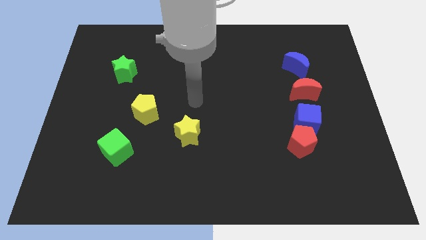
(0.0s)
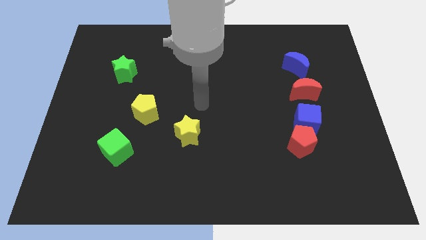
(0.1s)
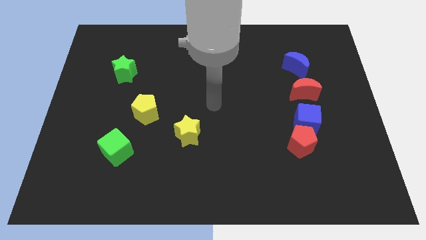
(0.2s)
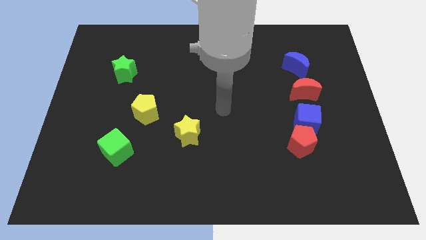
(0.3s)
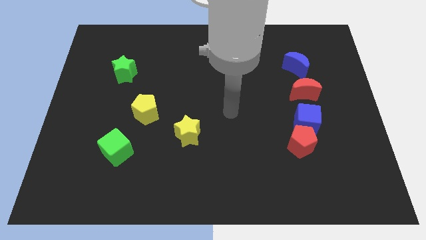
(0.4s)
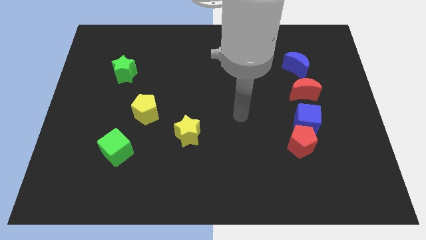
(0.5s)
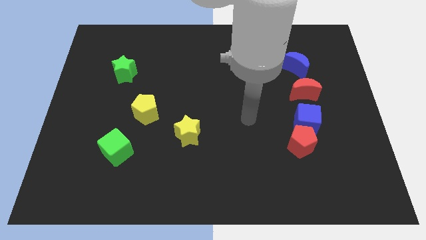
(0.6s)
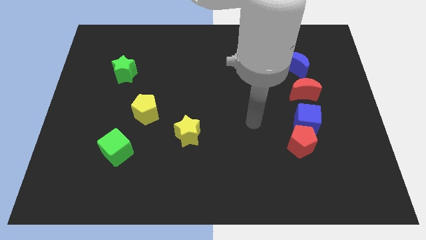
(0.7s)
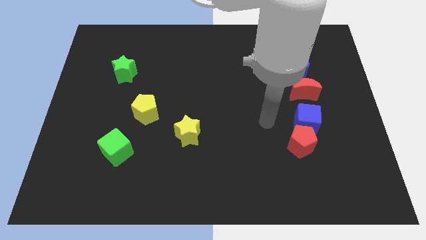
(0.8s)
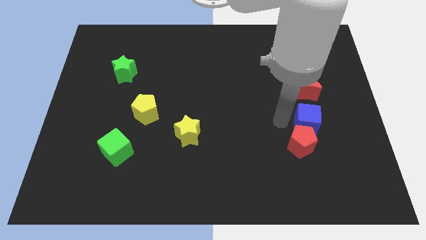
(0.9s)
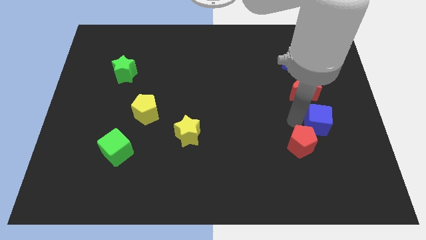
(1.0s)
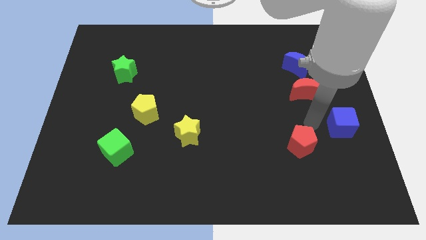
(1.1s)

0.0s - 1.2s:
separate the red pentagon from the blue cube

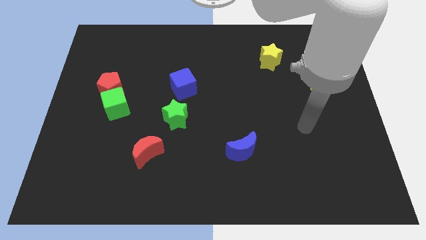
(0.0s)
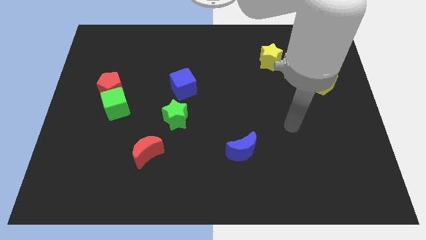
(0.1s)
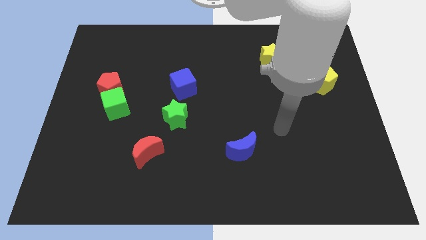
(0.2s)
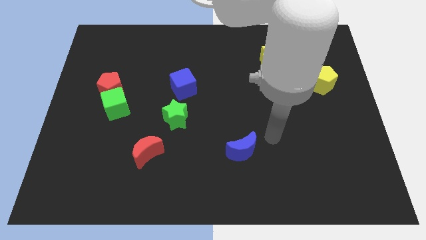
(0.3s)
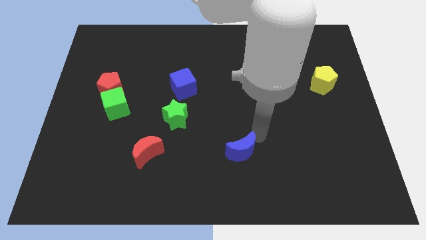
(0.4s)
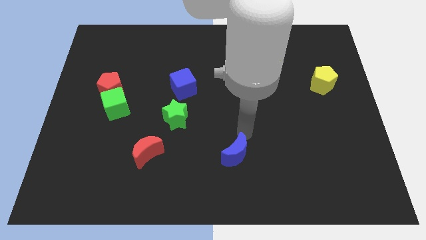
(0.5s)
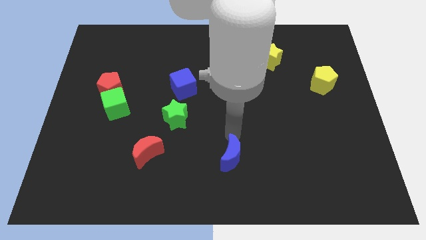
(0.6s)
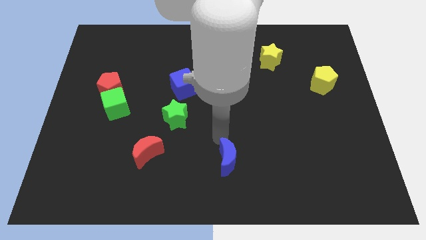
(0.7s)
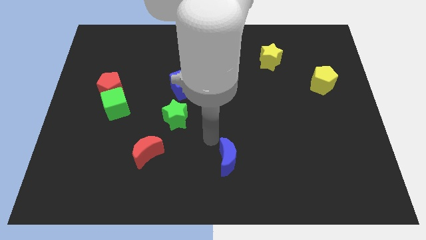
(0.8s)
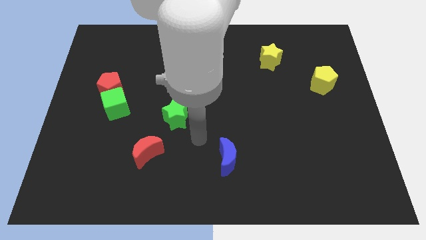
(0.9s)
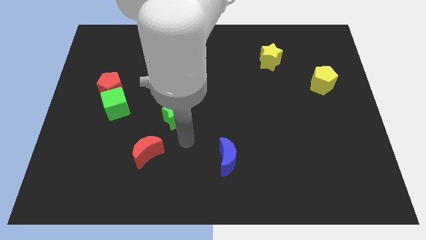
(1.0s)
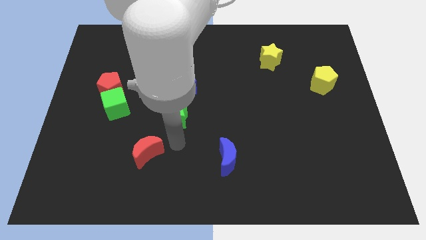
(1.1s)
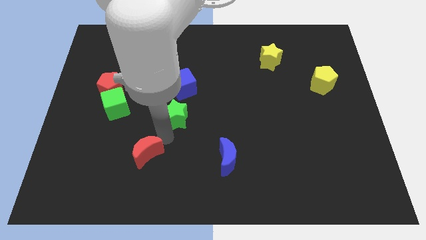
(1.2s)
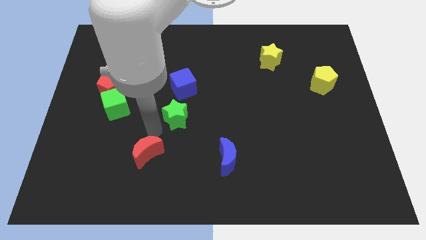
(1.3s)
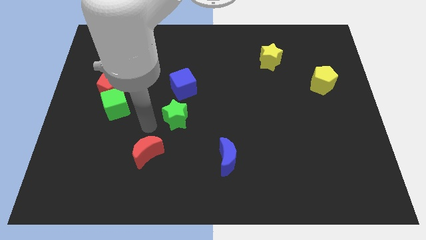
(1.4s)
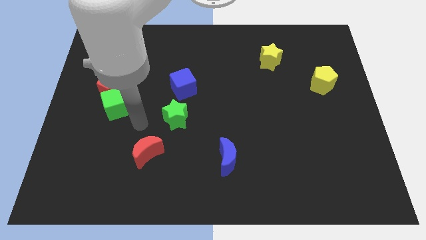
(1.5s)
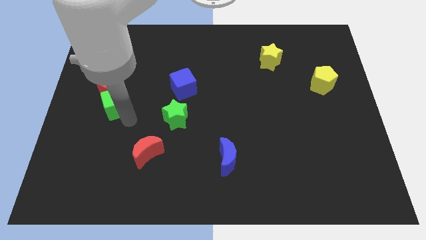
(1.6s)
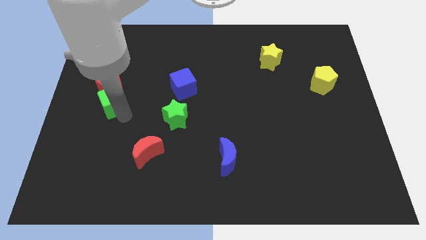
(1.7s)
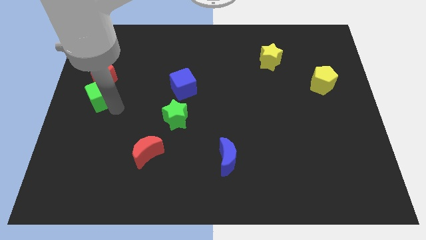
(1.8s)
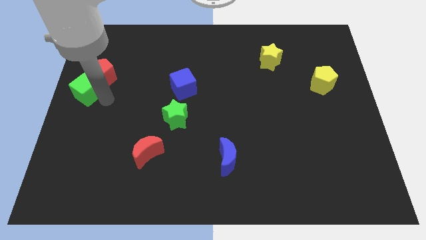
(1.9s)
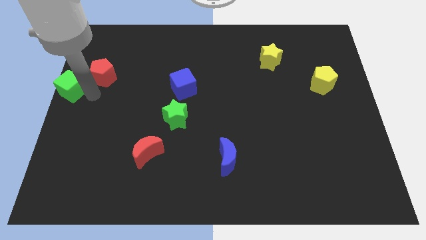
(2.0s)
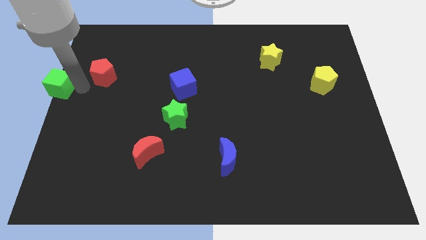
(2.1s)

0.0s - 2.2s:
move the red pentagon away from the green cube

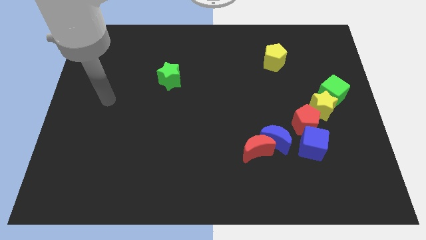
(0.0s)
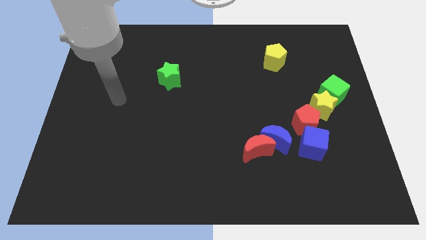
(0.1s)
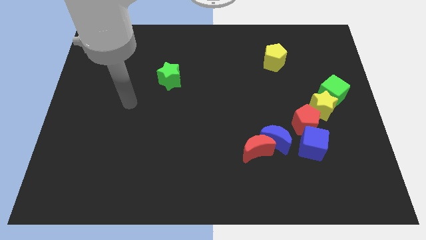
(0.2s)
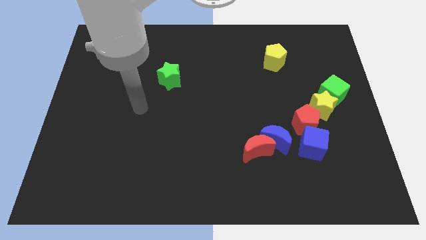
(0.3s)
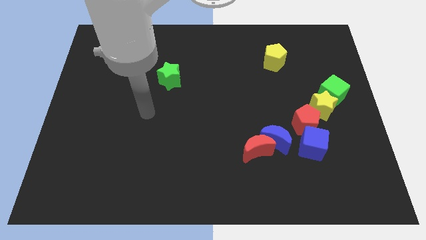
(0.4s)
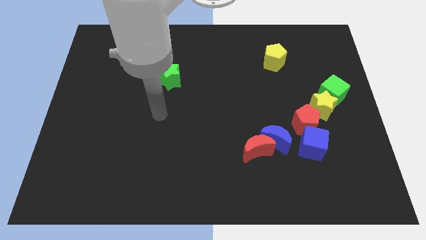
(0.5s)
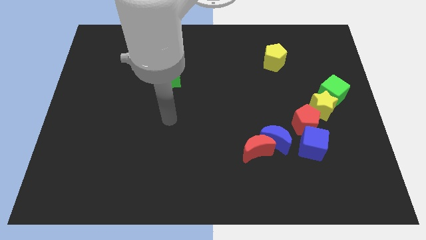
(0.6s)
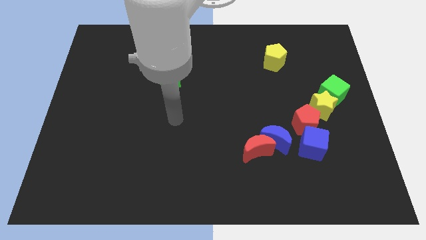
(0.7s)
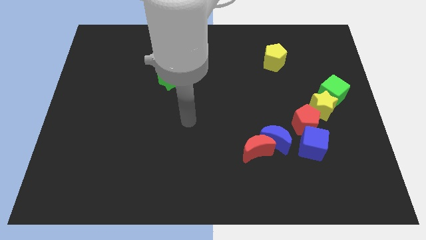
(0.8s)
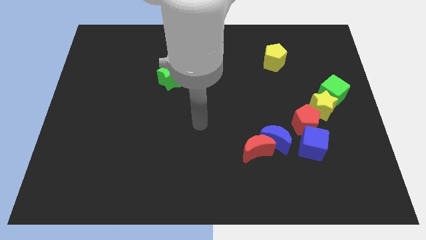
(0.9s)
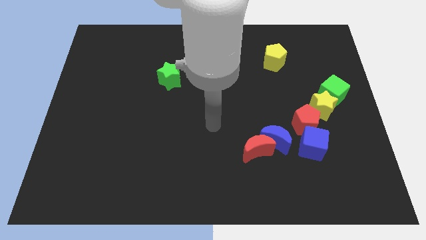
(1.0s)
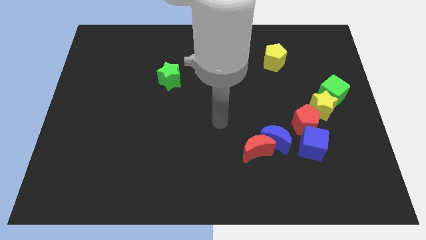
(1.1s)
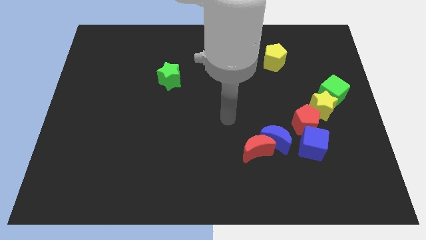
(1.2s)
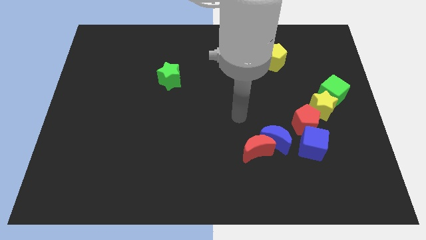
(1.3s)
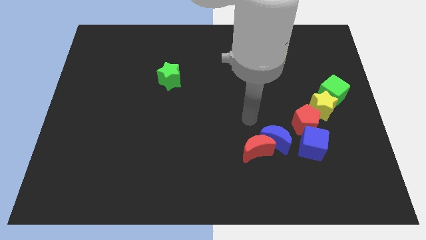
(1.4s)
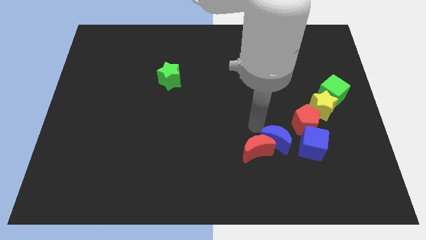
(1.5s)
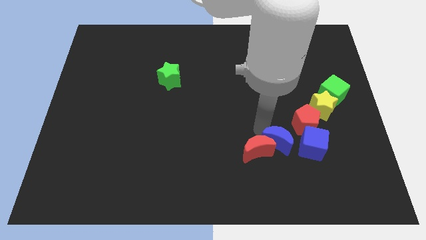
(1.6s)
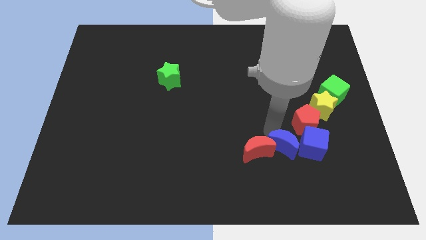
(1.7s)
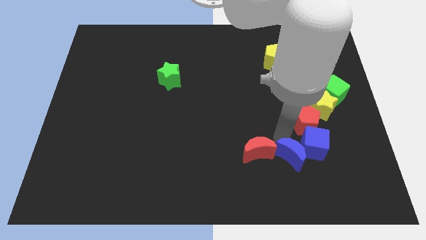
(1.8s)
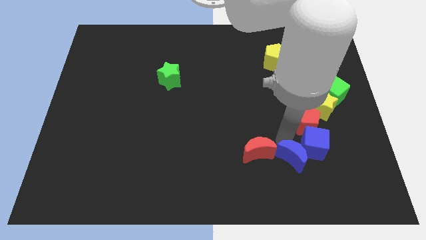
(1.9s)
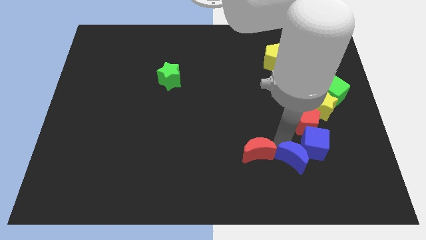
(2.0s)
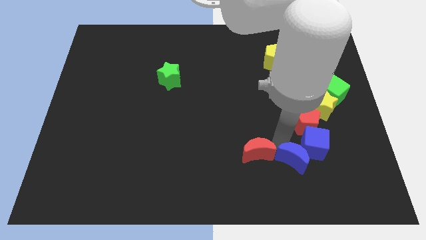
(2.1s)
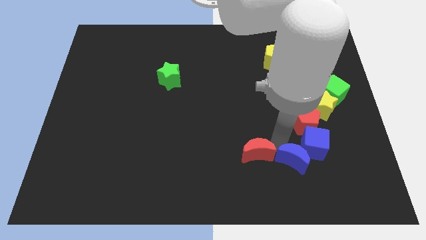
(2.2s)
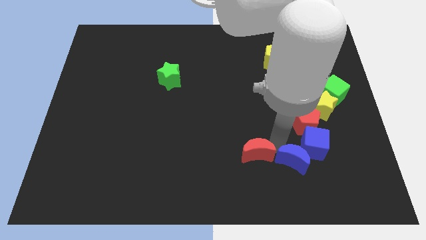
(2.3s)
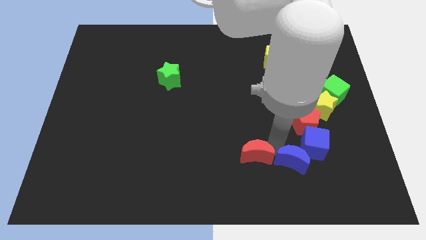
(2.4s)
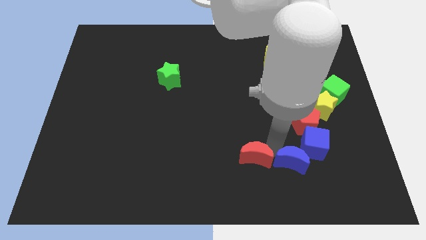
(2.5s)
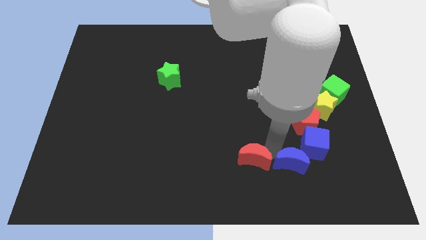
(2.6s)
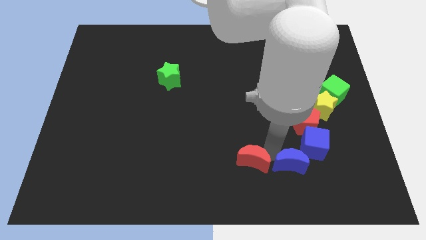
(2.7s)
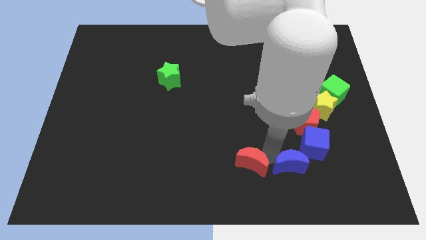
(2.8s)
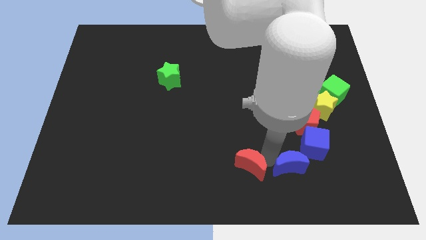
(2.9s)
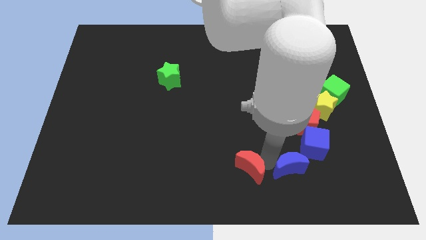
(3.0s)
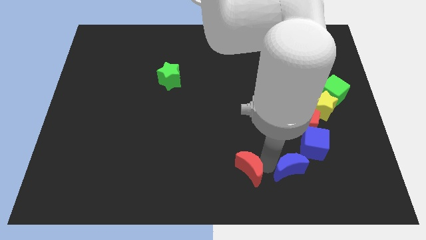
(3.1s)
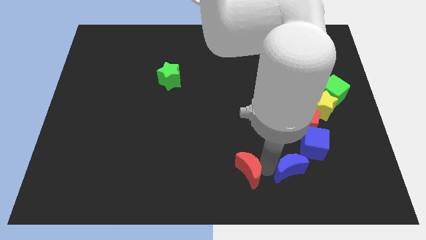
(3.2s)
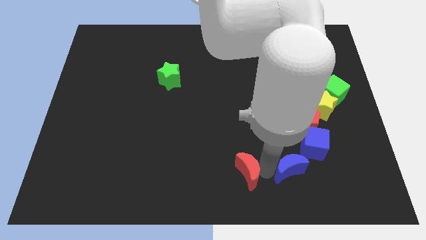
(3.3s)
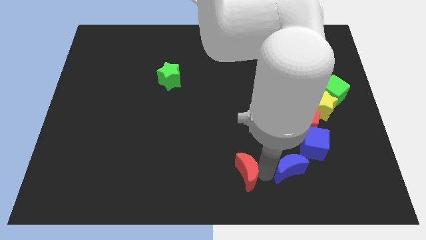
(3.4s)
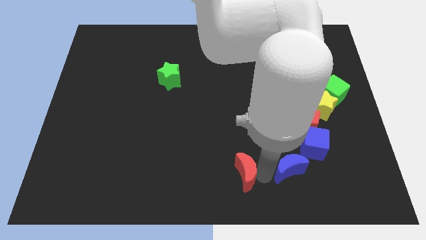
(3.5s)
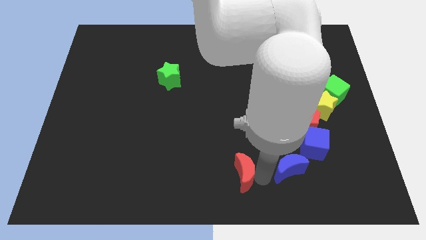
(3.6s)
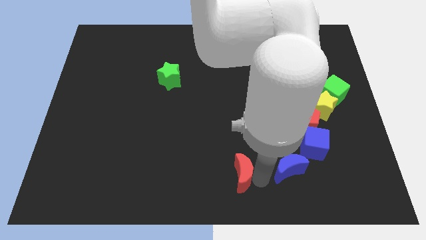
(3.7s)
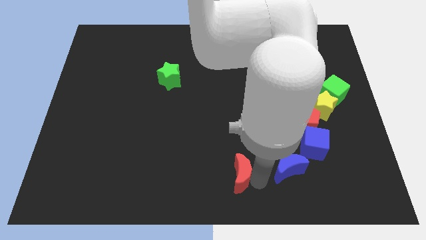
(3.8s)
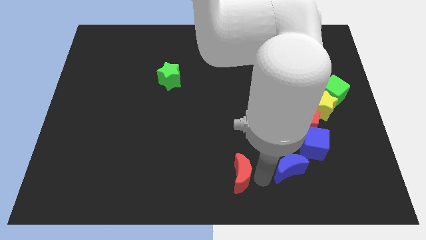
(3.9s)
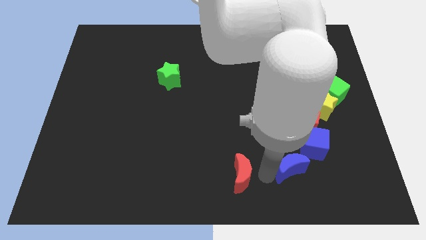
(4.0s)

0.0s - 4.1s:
separate the red moon from the blue moon

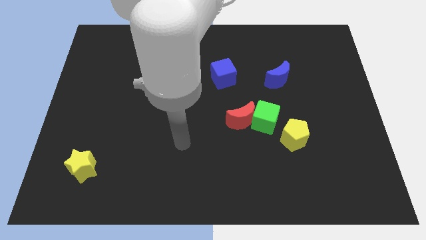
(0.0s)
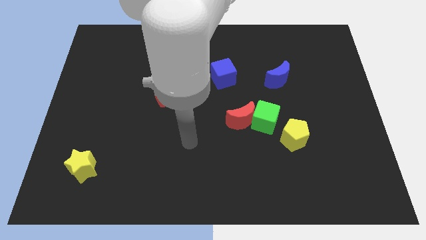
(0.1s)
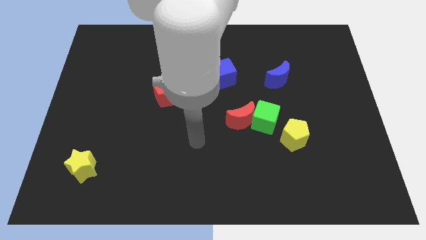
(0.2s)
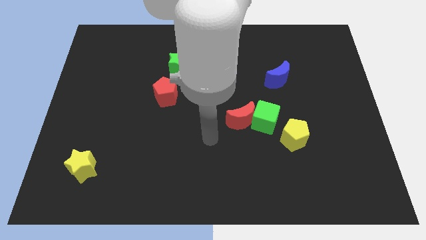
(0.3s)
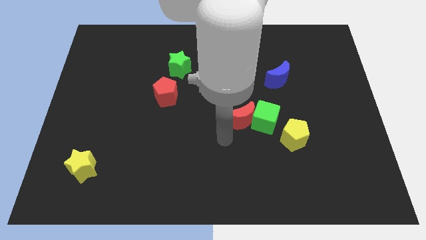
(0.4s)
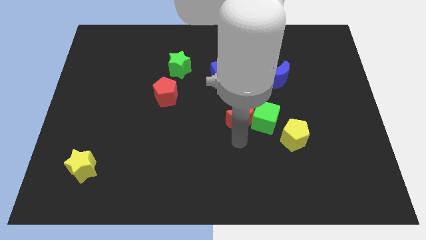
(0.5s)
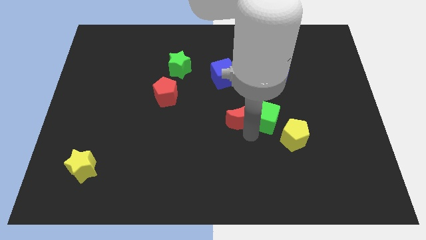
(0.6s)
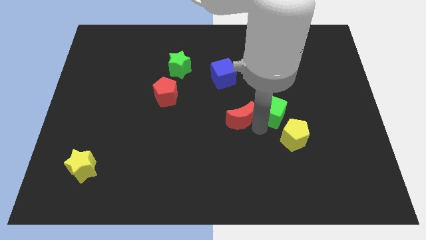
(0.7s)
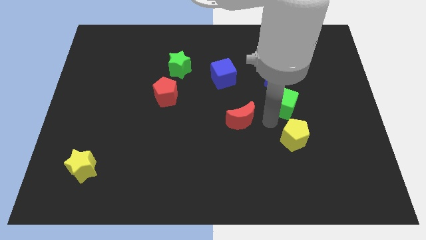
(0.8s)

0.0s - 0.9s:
pull the red moon apart from the green cube

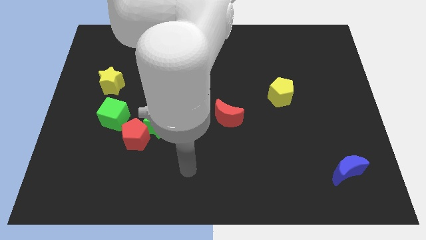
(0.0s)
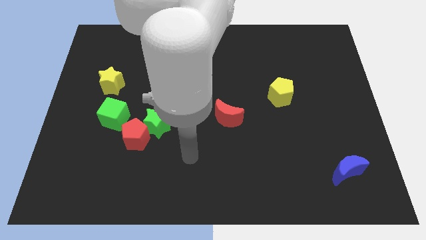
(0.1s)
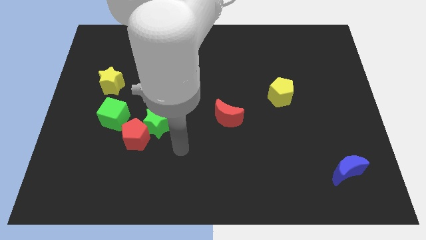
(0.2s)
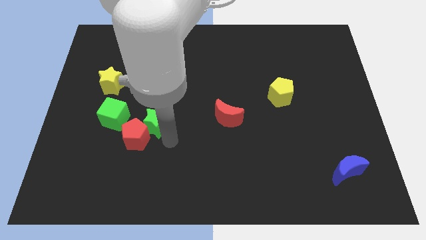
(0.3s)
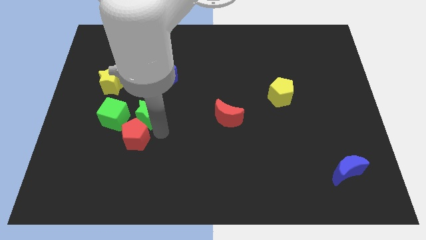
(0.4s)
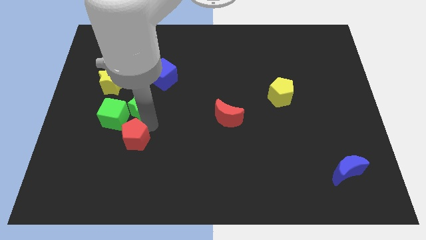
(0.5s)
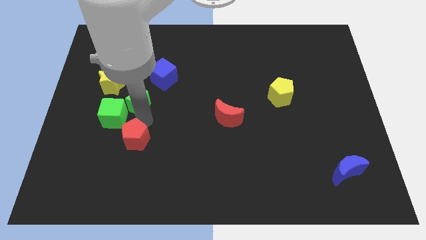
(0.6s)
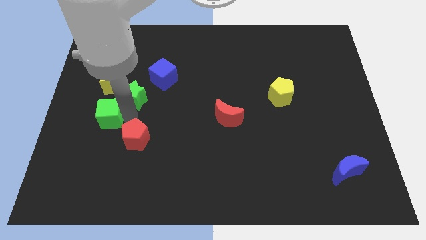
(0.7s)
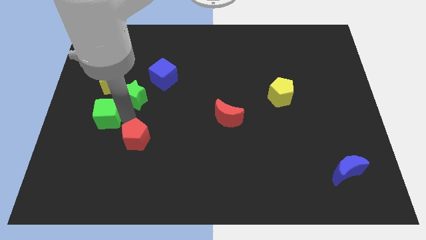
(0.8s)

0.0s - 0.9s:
move the red pentagon away from the green star and green cube
